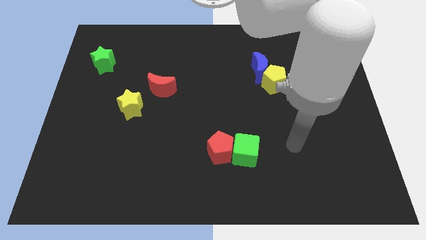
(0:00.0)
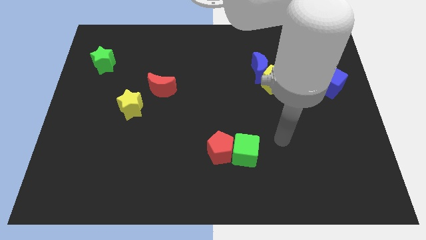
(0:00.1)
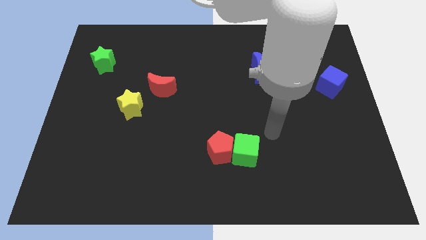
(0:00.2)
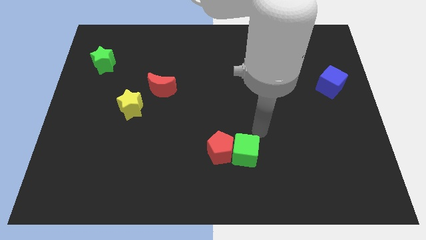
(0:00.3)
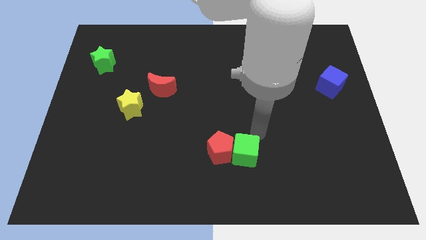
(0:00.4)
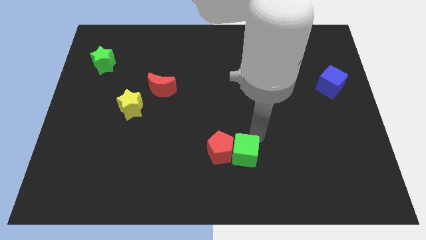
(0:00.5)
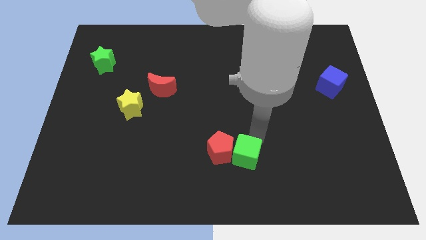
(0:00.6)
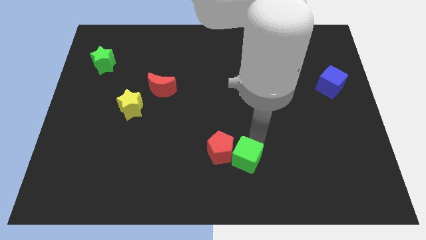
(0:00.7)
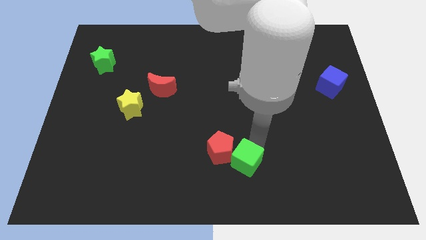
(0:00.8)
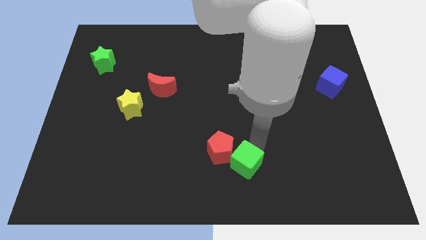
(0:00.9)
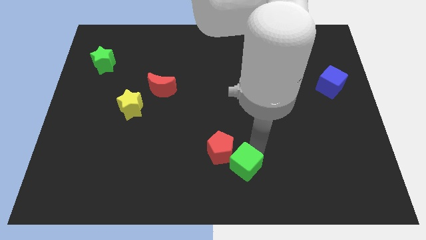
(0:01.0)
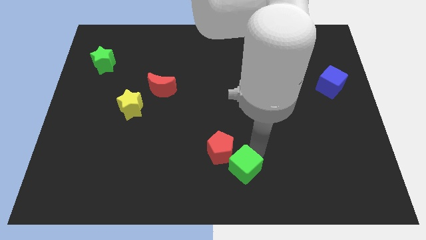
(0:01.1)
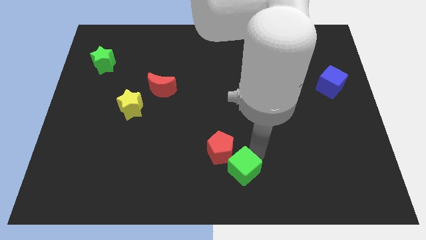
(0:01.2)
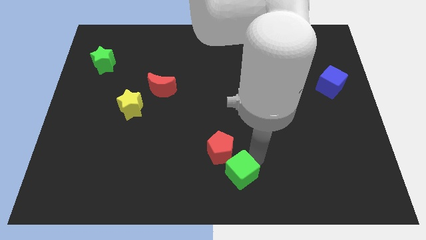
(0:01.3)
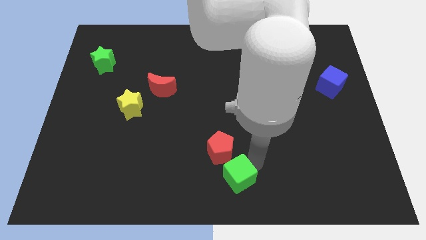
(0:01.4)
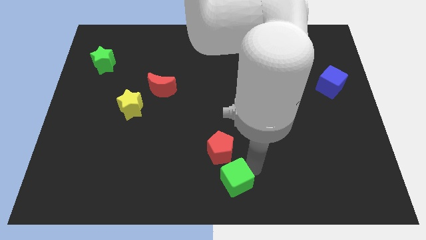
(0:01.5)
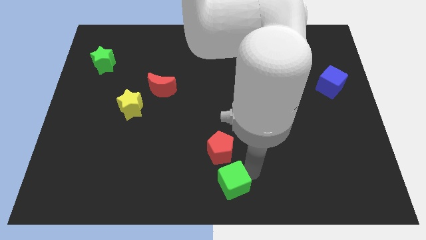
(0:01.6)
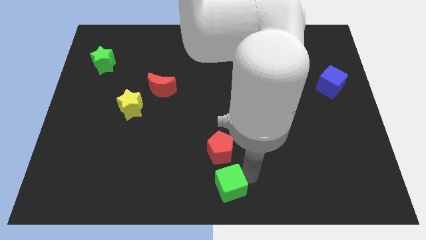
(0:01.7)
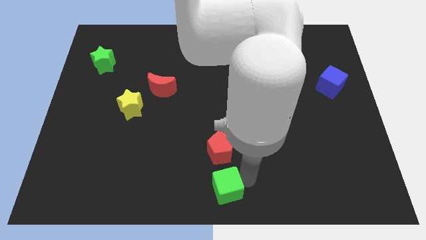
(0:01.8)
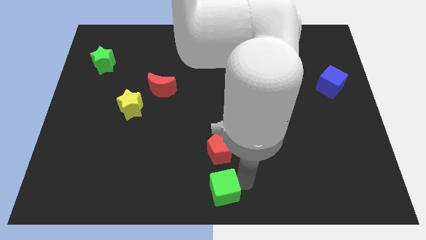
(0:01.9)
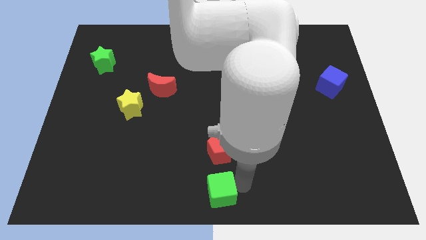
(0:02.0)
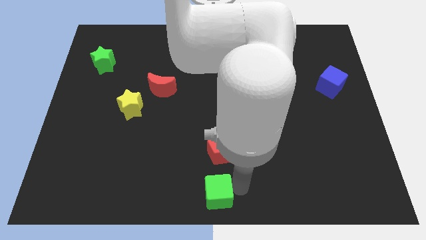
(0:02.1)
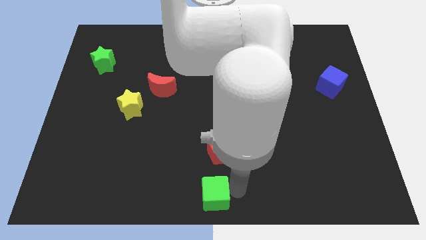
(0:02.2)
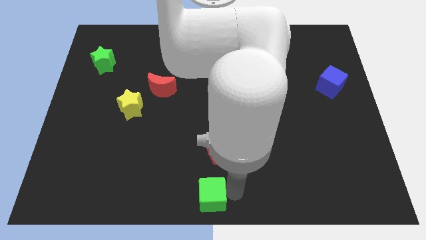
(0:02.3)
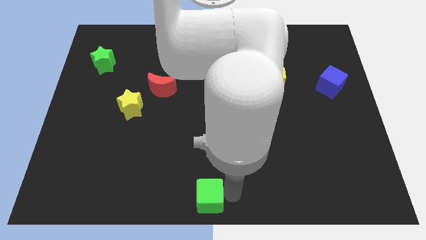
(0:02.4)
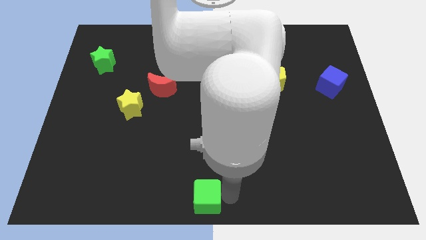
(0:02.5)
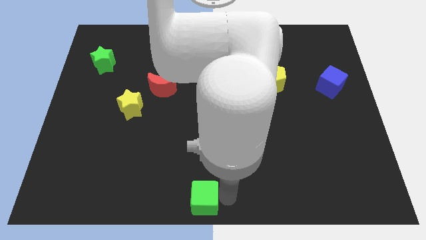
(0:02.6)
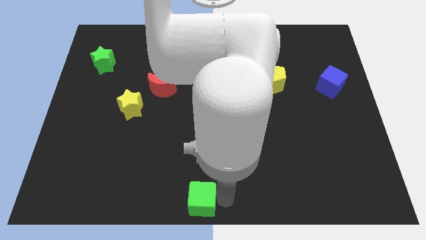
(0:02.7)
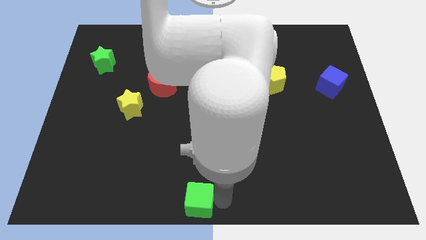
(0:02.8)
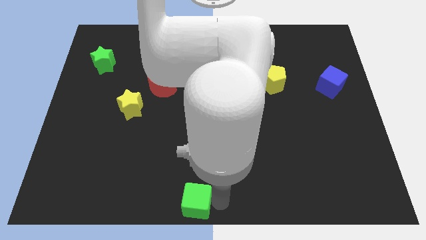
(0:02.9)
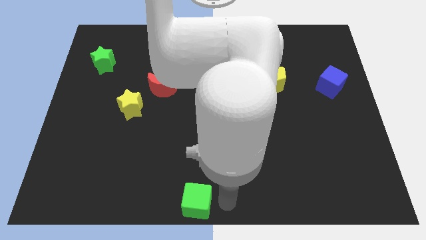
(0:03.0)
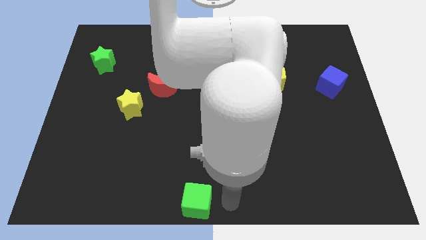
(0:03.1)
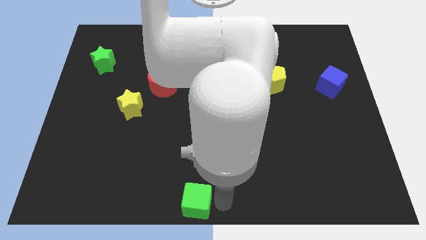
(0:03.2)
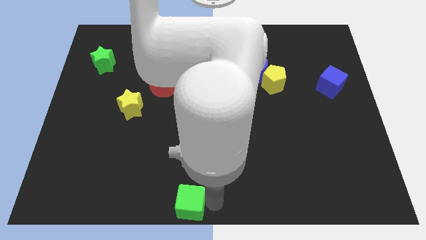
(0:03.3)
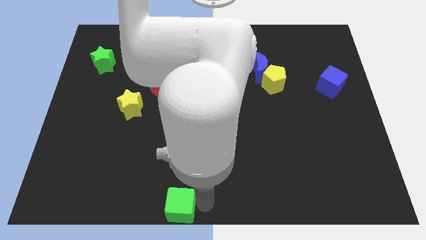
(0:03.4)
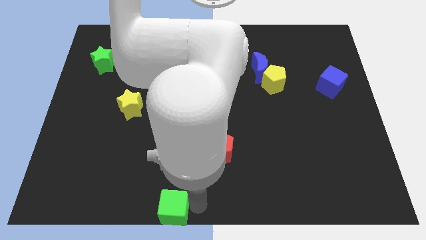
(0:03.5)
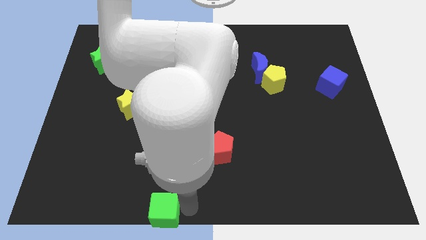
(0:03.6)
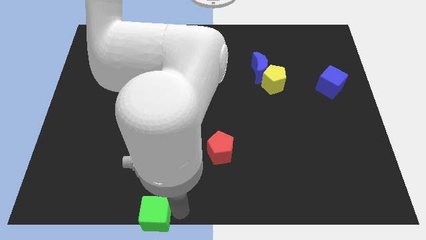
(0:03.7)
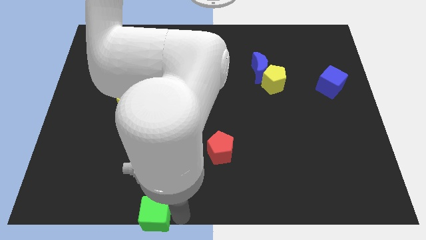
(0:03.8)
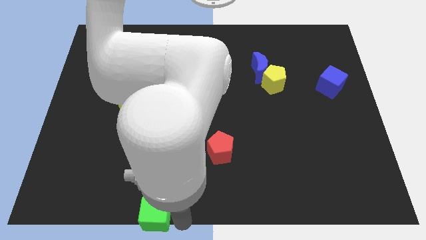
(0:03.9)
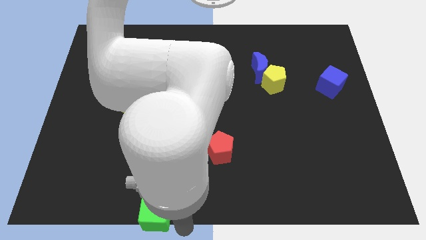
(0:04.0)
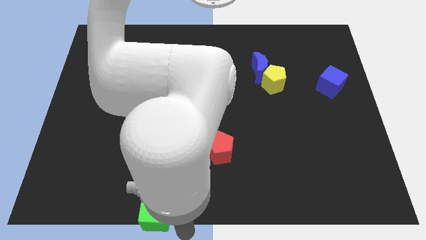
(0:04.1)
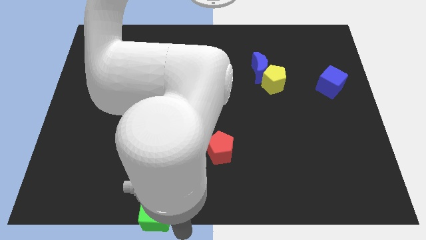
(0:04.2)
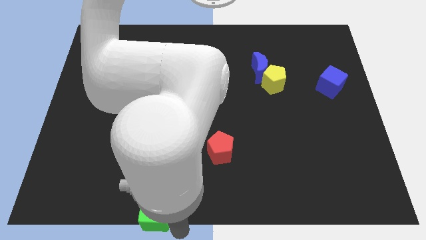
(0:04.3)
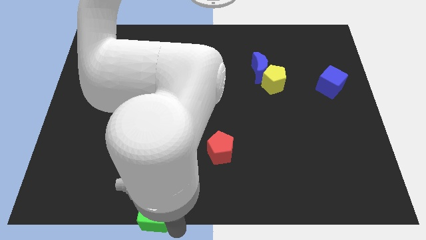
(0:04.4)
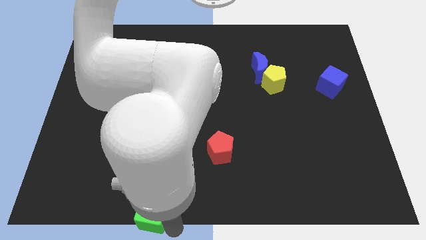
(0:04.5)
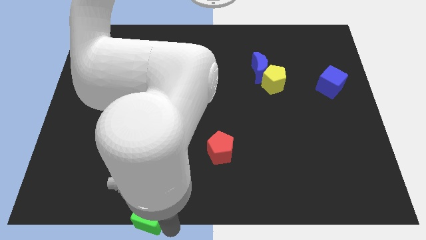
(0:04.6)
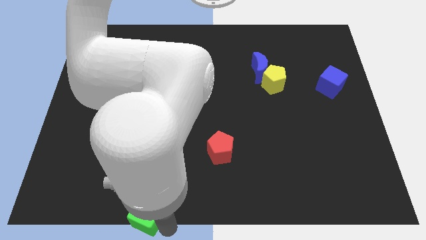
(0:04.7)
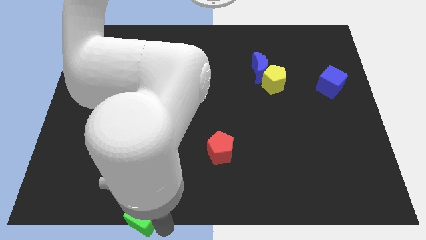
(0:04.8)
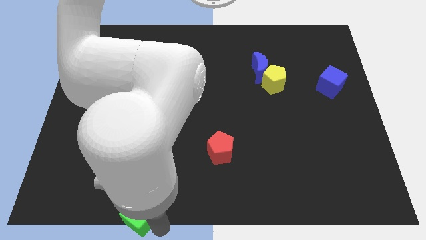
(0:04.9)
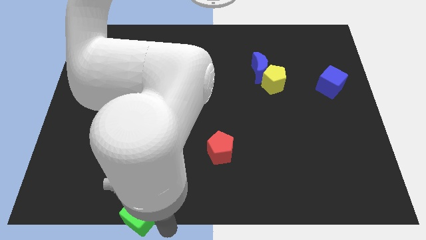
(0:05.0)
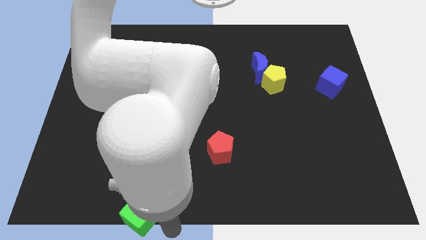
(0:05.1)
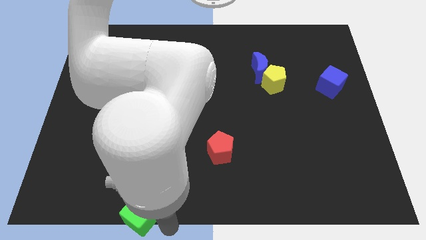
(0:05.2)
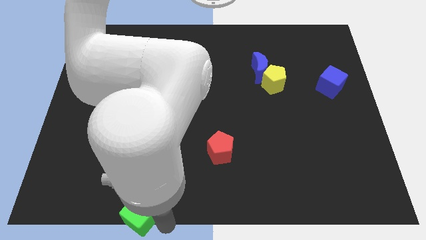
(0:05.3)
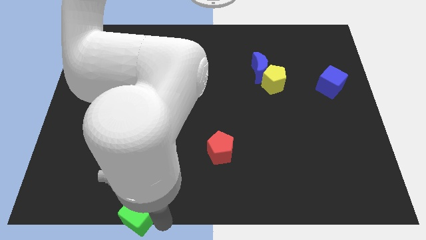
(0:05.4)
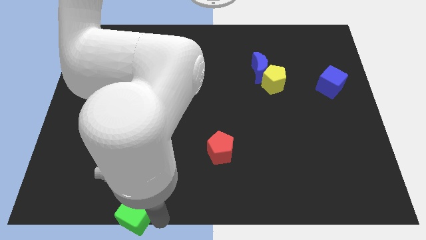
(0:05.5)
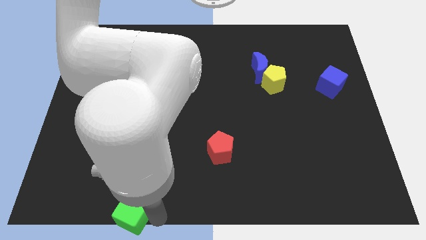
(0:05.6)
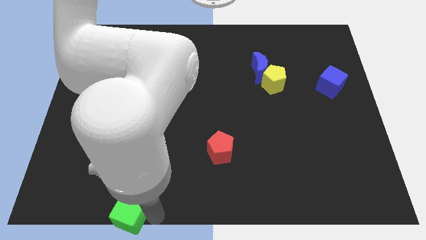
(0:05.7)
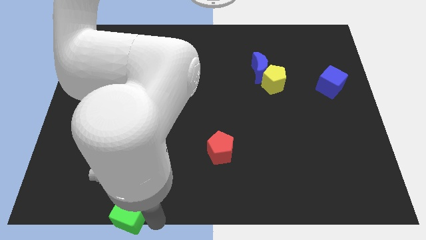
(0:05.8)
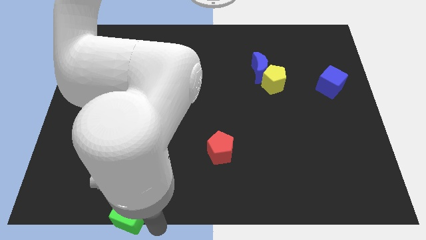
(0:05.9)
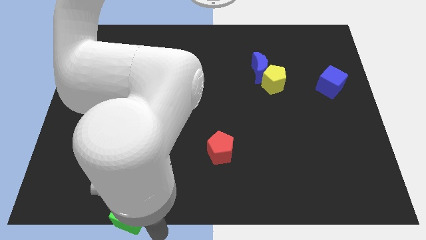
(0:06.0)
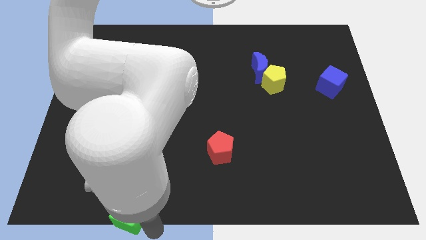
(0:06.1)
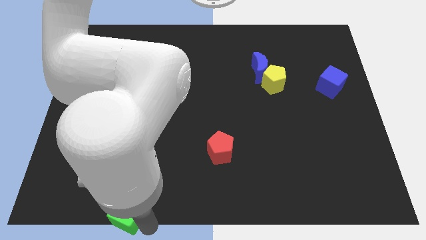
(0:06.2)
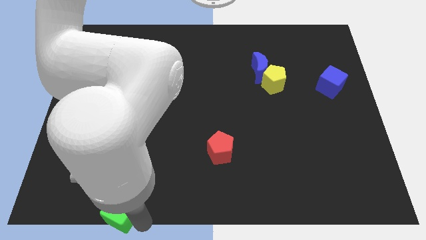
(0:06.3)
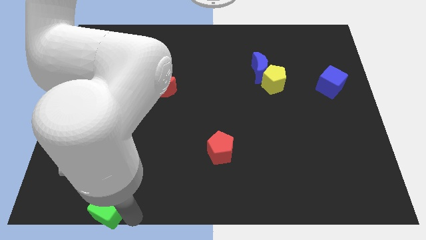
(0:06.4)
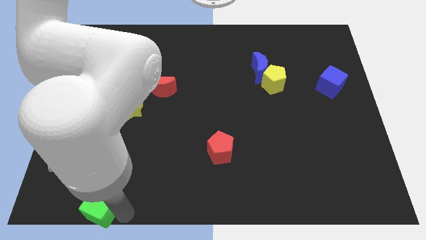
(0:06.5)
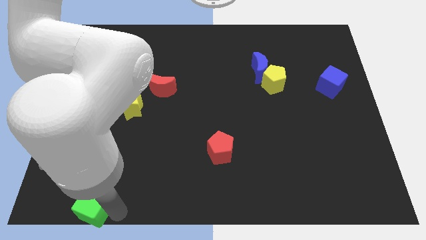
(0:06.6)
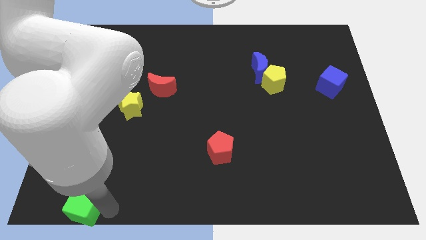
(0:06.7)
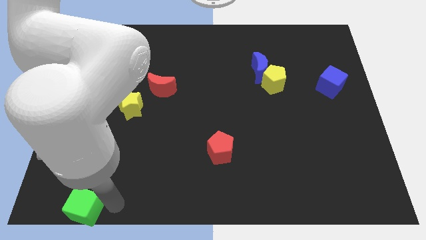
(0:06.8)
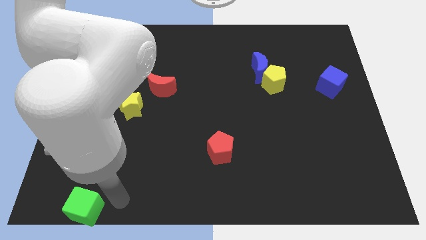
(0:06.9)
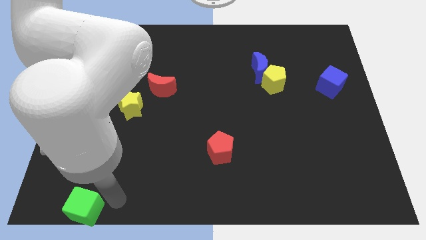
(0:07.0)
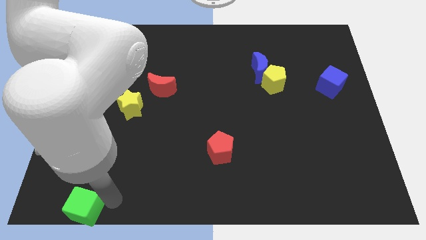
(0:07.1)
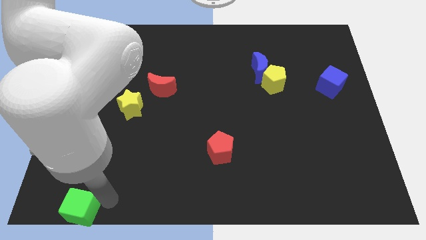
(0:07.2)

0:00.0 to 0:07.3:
put the green cube to the bottom left of the board
